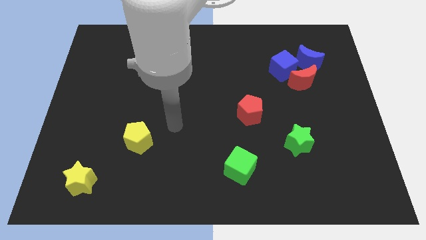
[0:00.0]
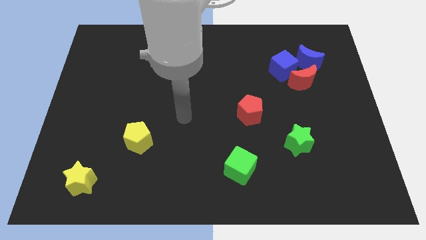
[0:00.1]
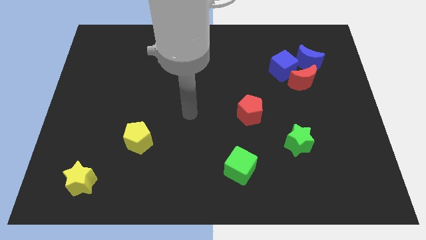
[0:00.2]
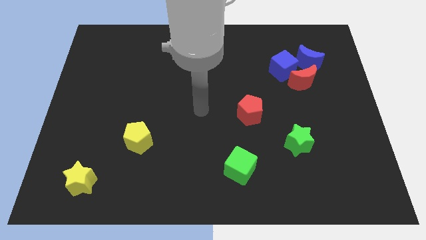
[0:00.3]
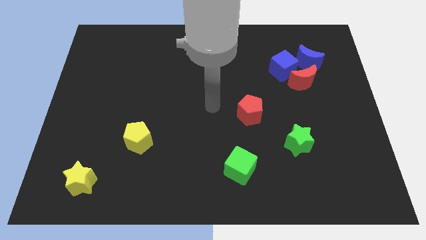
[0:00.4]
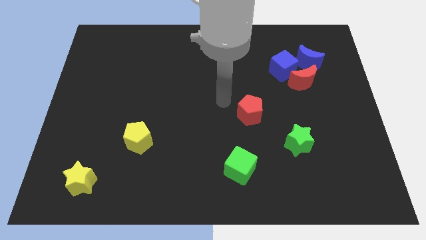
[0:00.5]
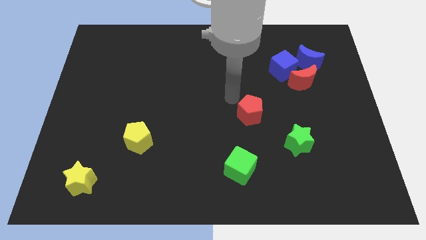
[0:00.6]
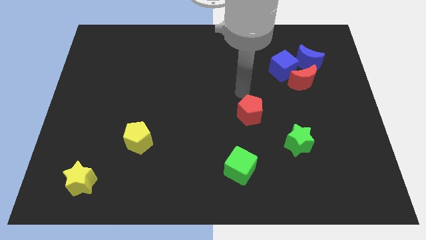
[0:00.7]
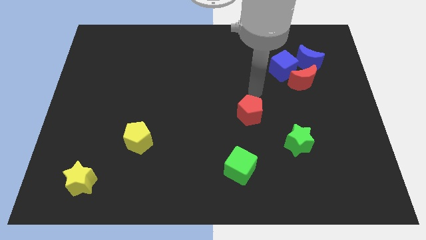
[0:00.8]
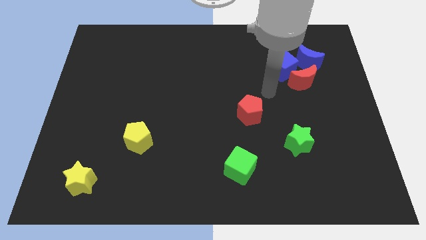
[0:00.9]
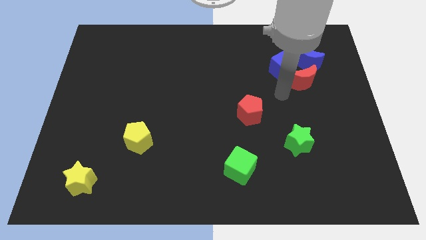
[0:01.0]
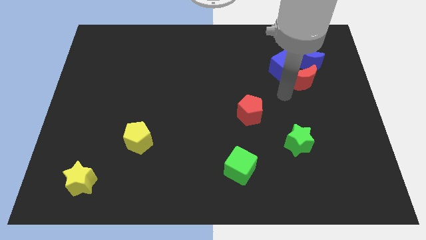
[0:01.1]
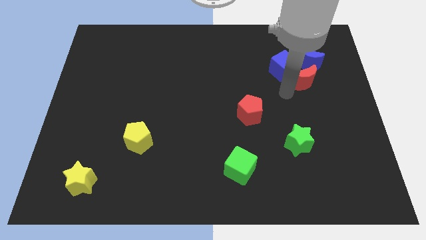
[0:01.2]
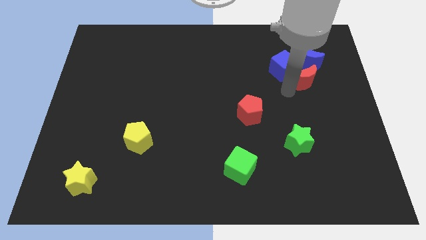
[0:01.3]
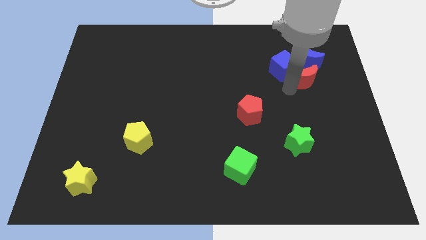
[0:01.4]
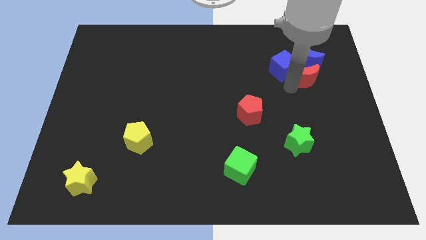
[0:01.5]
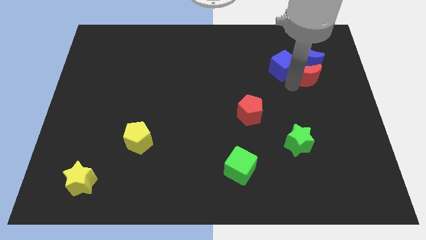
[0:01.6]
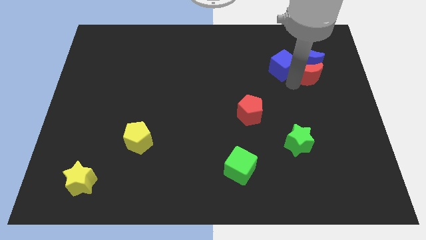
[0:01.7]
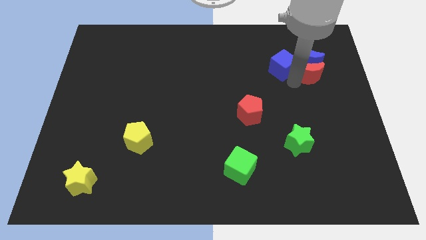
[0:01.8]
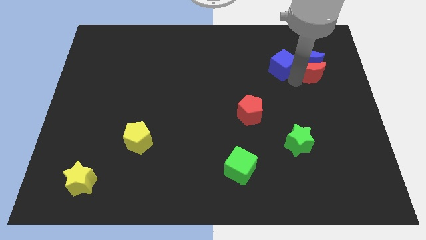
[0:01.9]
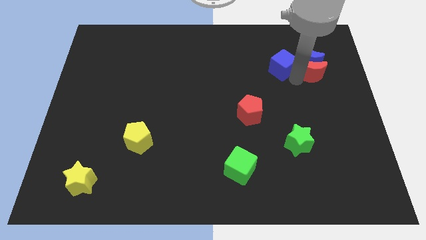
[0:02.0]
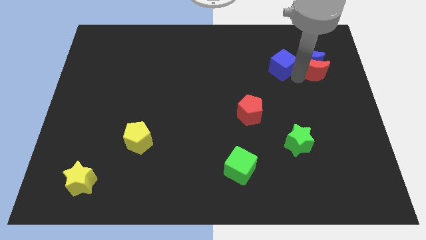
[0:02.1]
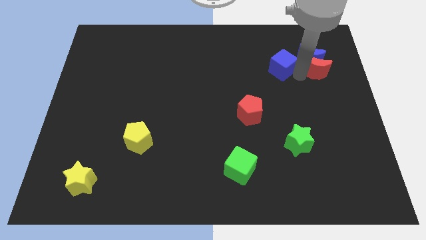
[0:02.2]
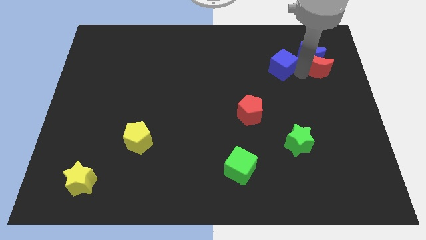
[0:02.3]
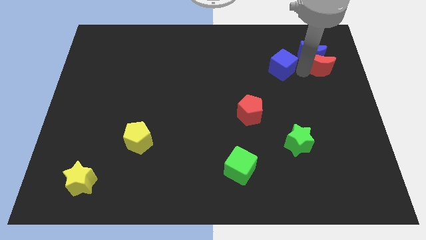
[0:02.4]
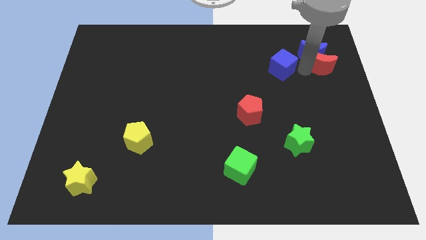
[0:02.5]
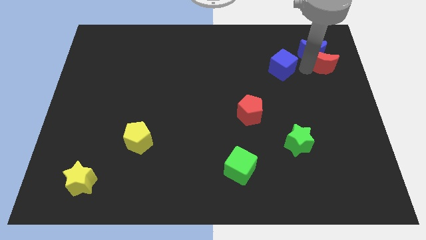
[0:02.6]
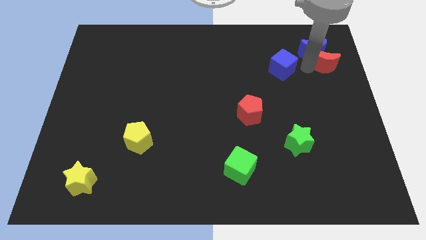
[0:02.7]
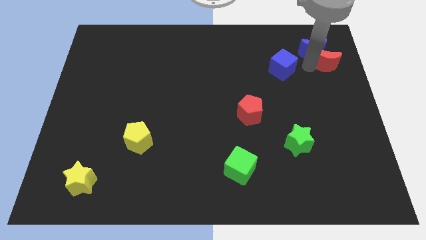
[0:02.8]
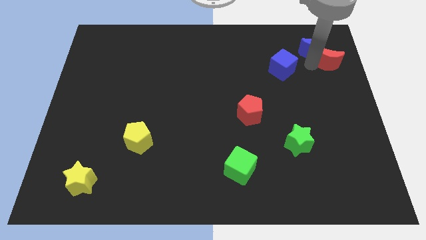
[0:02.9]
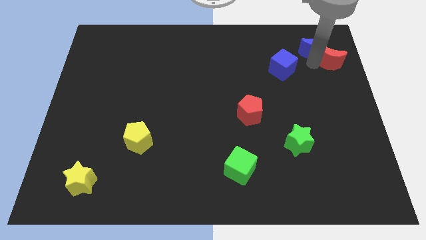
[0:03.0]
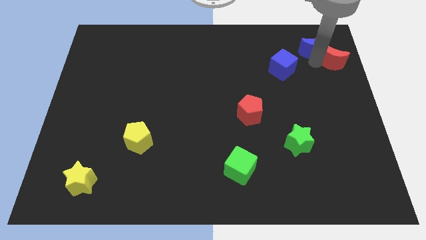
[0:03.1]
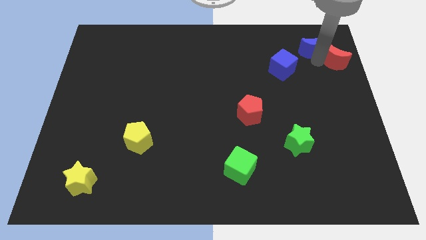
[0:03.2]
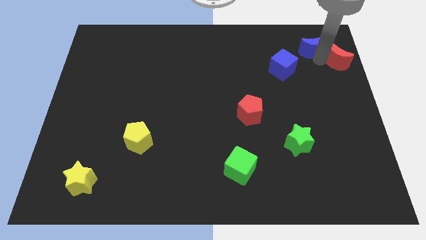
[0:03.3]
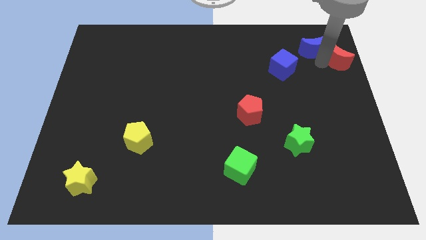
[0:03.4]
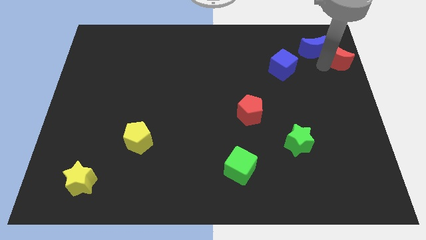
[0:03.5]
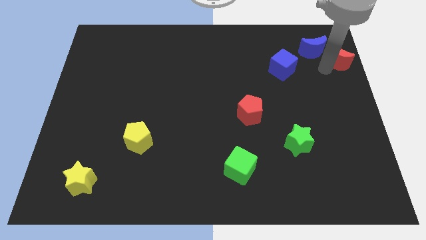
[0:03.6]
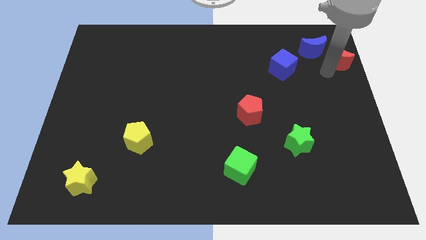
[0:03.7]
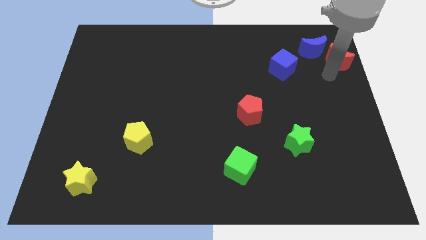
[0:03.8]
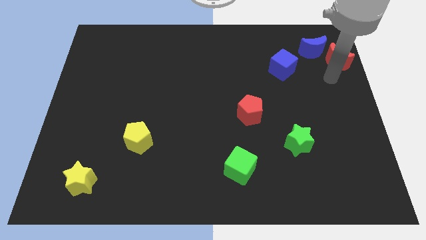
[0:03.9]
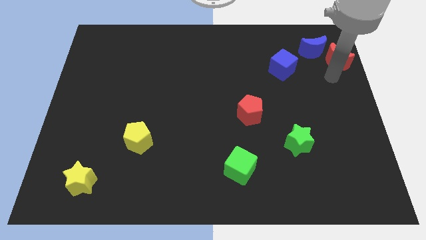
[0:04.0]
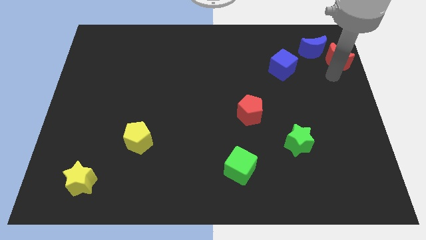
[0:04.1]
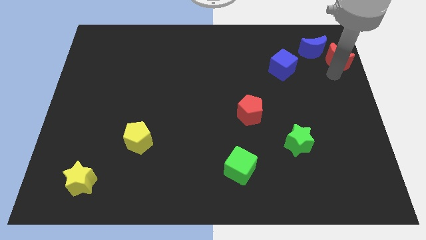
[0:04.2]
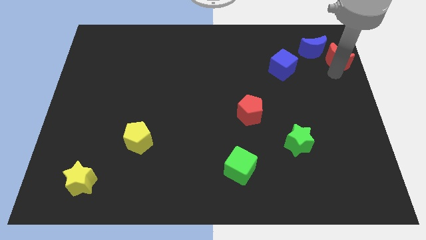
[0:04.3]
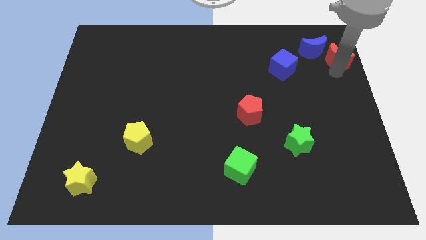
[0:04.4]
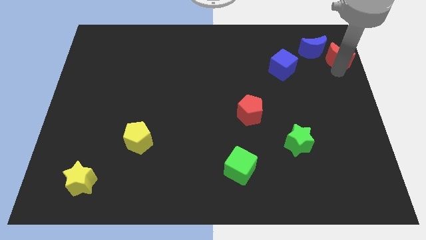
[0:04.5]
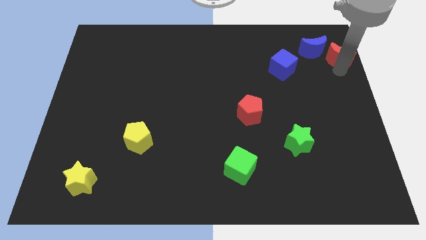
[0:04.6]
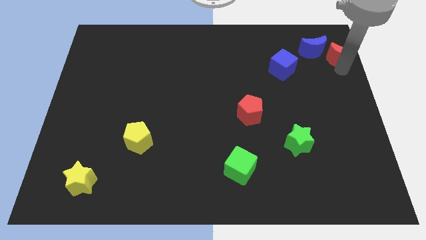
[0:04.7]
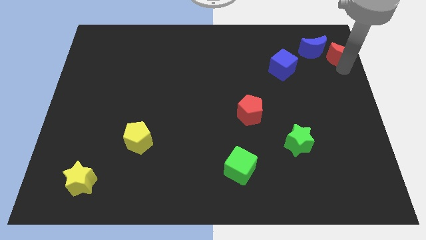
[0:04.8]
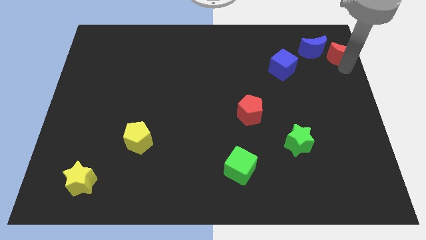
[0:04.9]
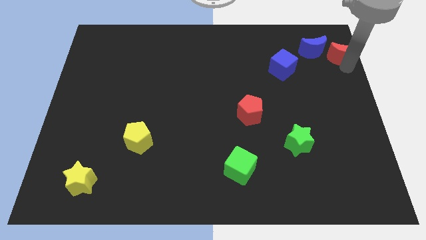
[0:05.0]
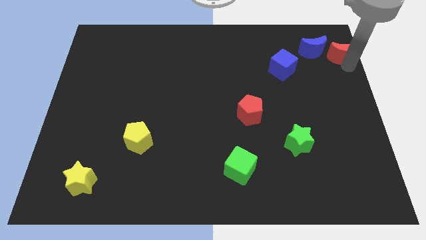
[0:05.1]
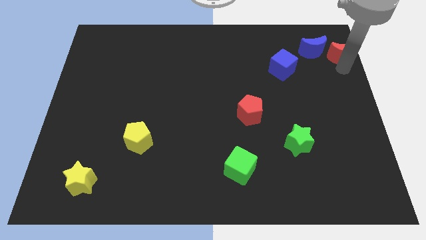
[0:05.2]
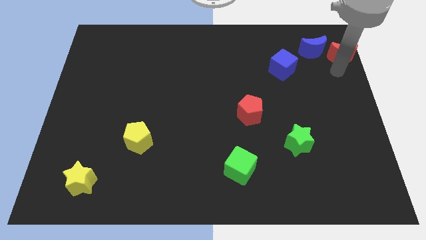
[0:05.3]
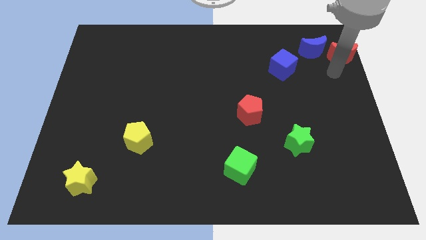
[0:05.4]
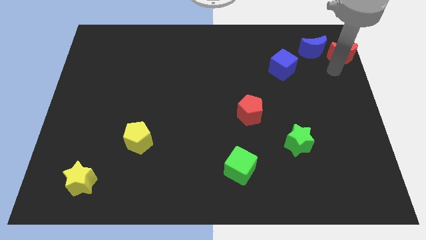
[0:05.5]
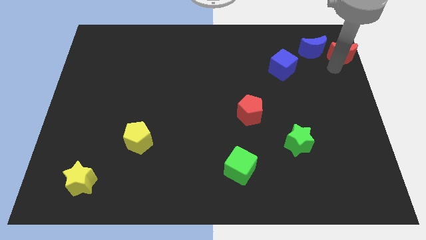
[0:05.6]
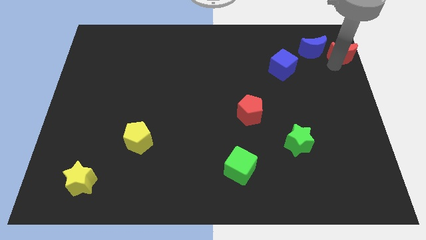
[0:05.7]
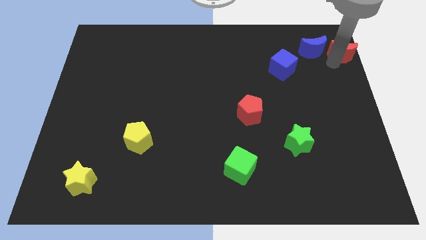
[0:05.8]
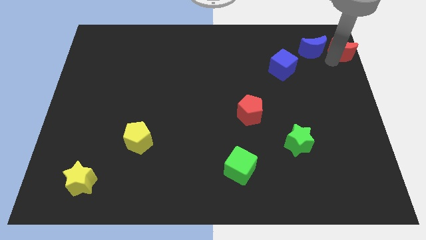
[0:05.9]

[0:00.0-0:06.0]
move the red moon to the top right corner

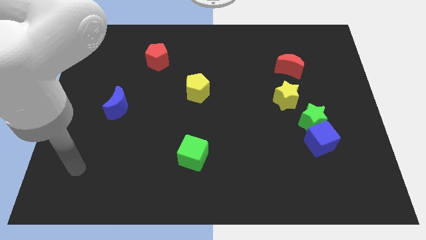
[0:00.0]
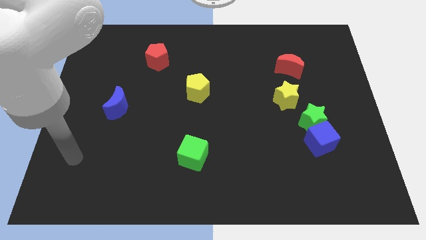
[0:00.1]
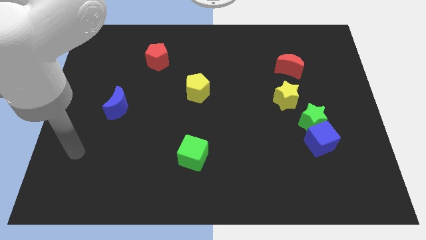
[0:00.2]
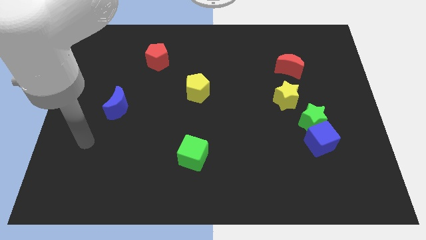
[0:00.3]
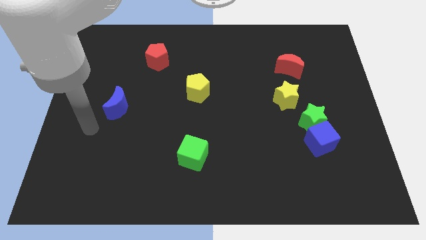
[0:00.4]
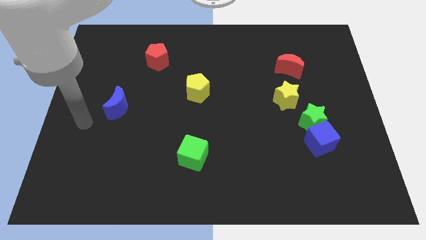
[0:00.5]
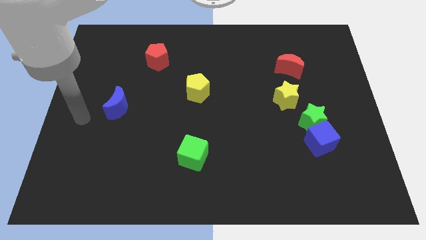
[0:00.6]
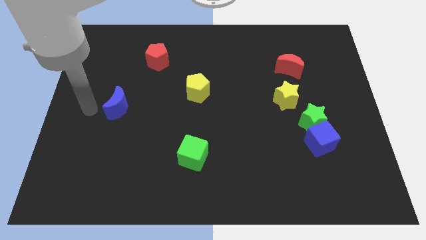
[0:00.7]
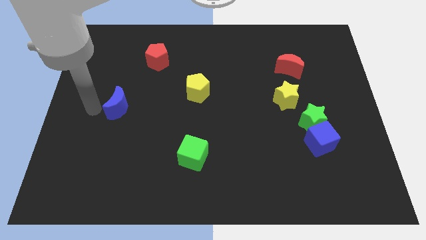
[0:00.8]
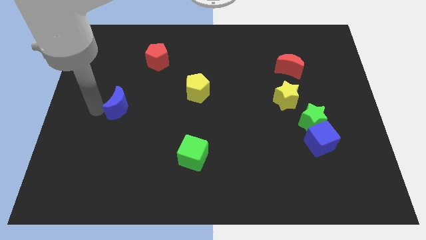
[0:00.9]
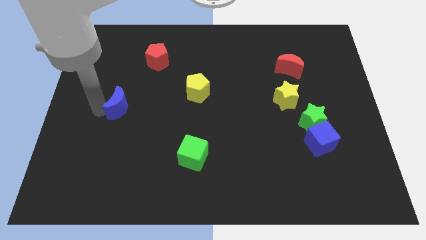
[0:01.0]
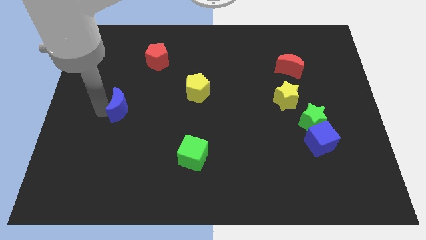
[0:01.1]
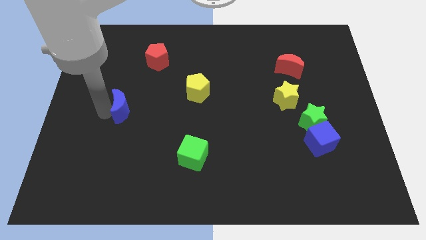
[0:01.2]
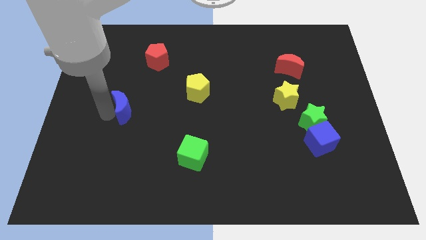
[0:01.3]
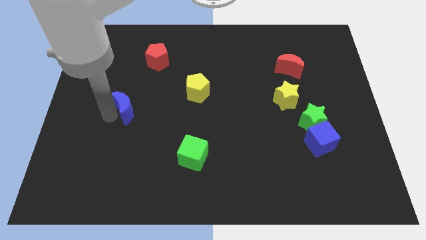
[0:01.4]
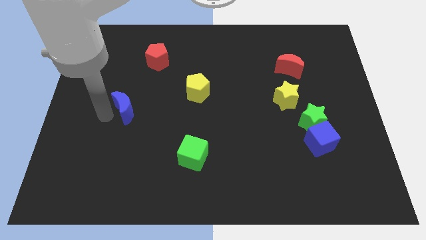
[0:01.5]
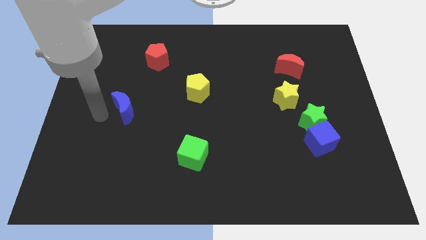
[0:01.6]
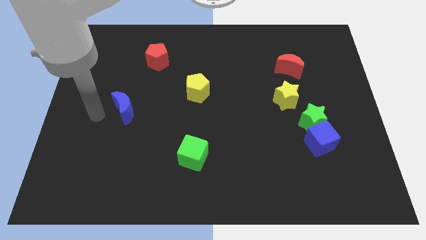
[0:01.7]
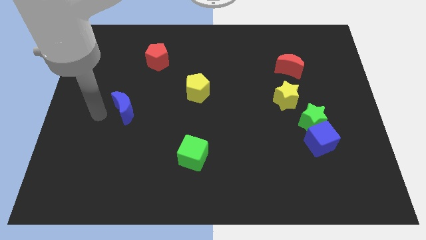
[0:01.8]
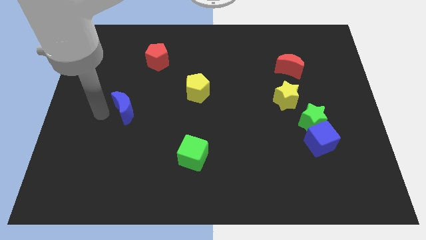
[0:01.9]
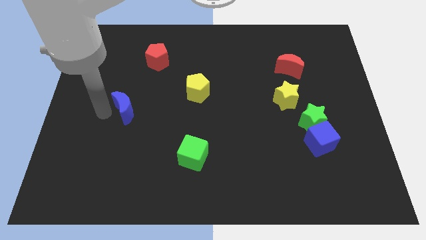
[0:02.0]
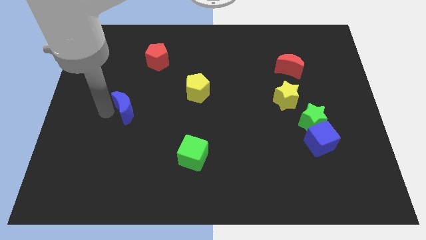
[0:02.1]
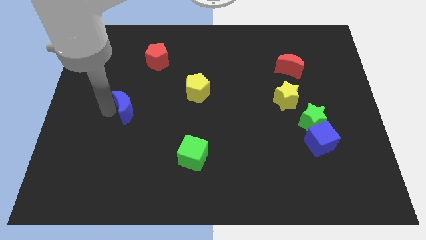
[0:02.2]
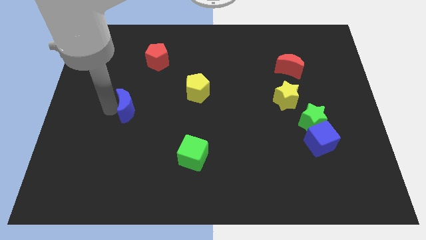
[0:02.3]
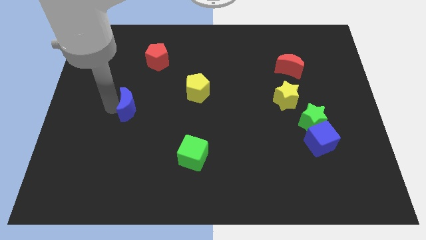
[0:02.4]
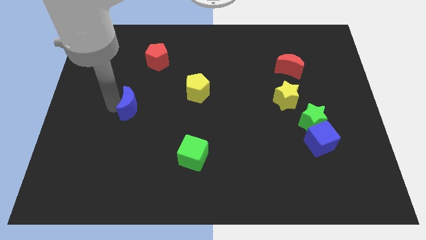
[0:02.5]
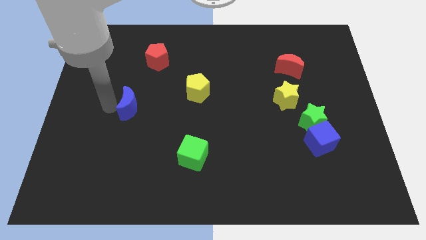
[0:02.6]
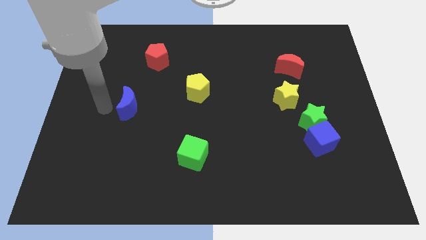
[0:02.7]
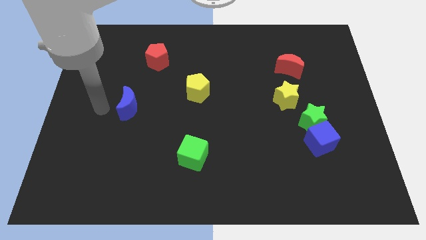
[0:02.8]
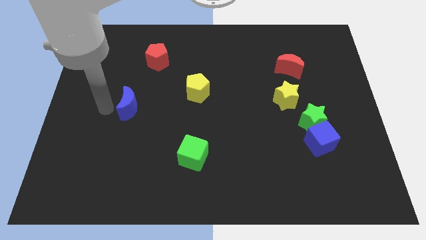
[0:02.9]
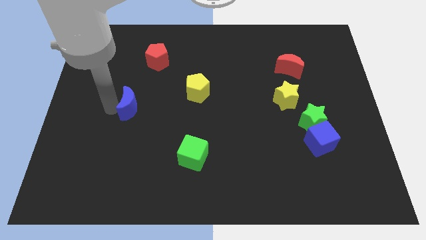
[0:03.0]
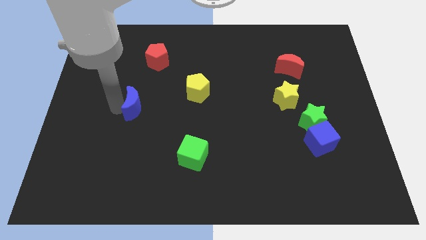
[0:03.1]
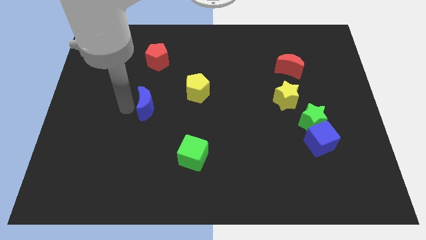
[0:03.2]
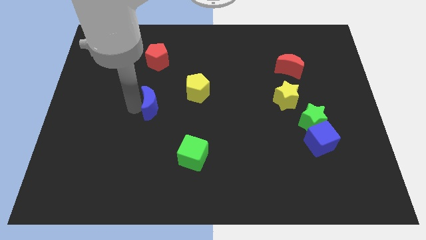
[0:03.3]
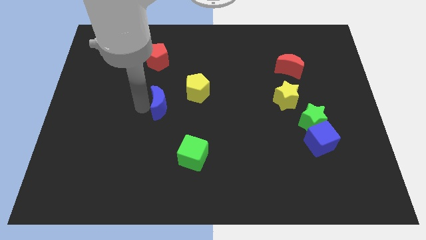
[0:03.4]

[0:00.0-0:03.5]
put the blue moon to the middle of the board
